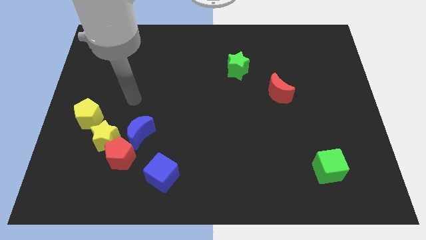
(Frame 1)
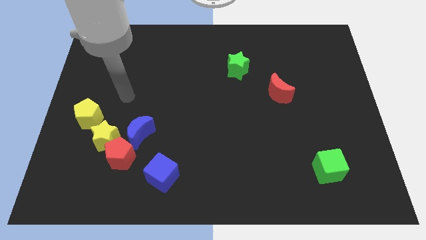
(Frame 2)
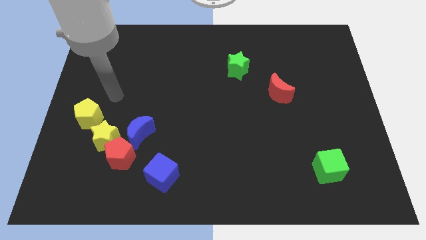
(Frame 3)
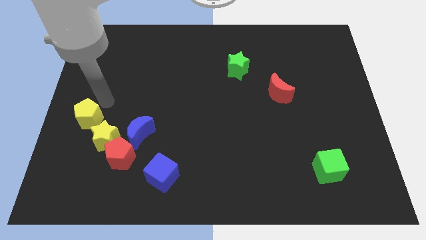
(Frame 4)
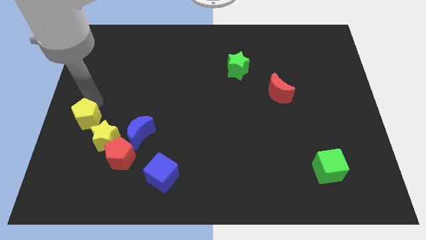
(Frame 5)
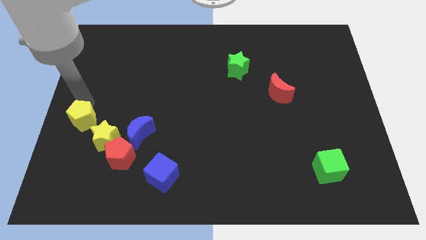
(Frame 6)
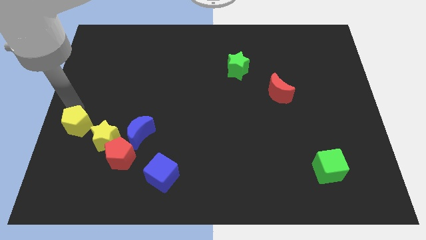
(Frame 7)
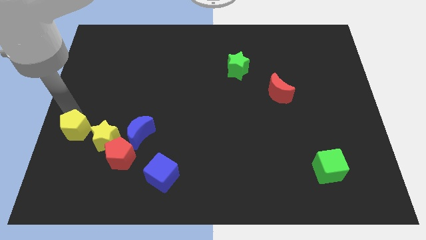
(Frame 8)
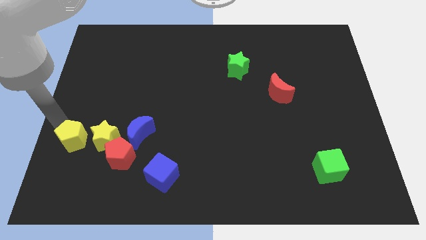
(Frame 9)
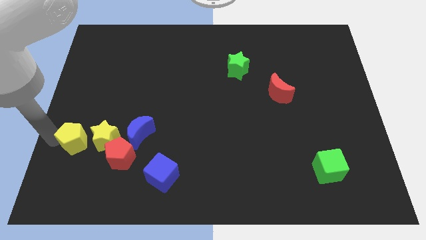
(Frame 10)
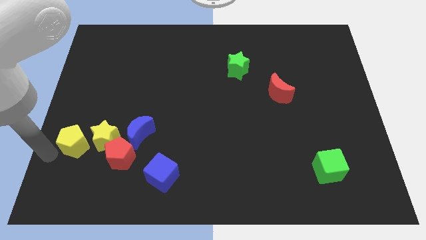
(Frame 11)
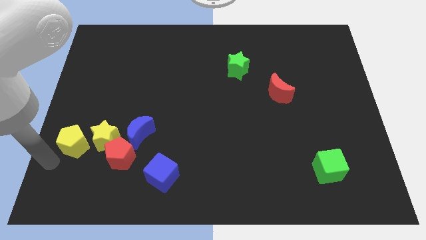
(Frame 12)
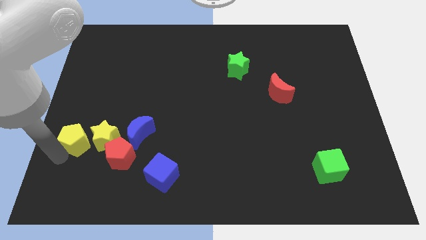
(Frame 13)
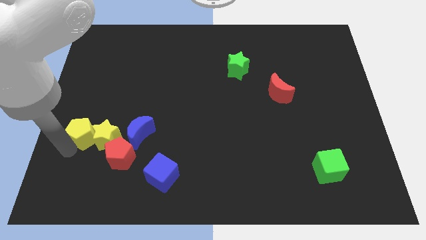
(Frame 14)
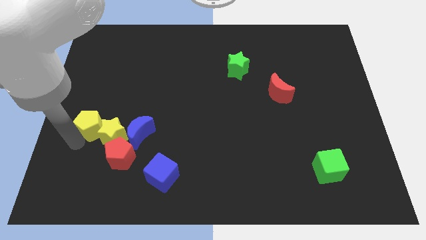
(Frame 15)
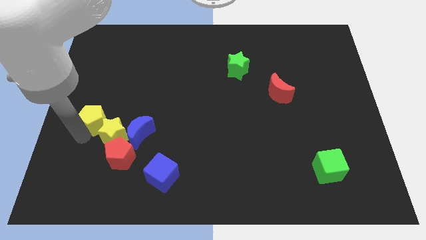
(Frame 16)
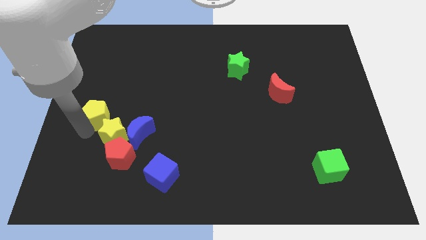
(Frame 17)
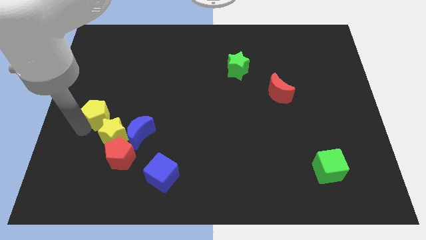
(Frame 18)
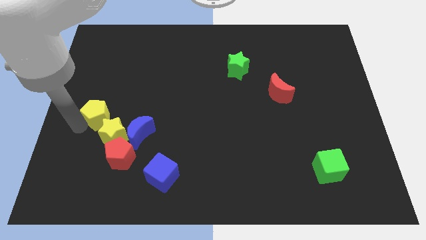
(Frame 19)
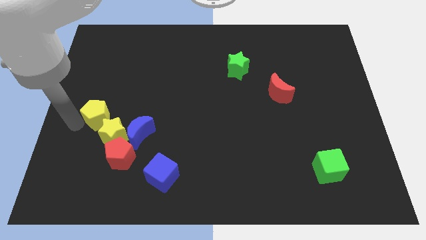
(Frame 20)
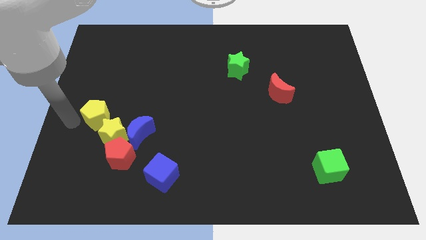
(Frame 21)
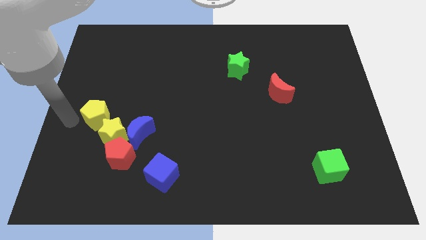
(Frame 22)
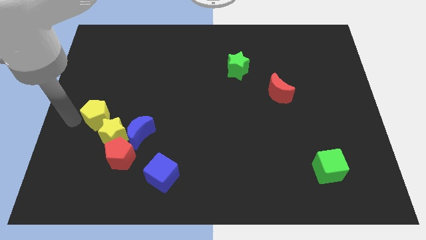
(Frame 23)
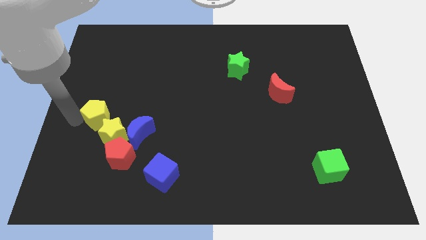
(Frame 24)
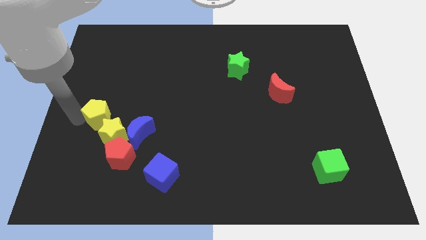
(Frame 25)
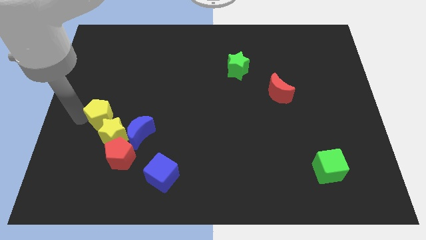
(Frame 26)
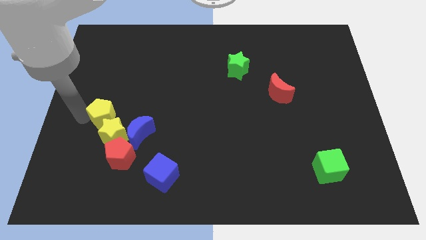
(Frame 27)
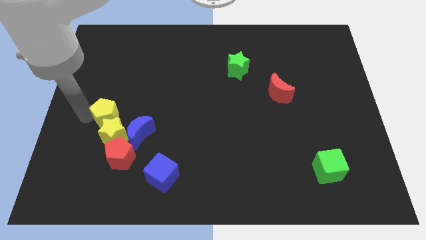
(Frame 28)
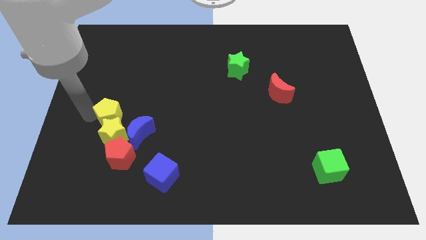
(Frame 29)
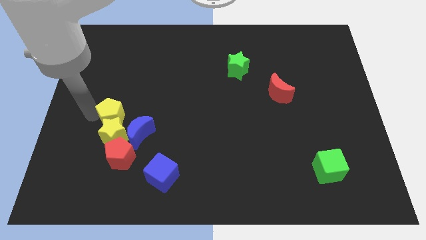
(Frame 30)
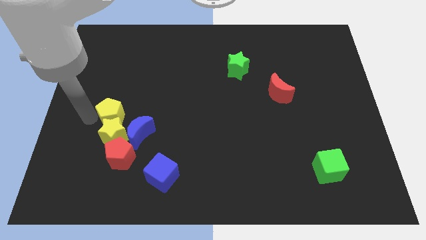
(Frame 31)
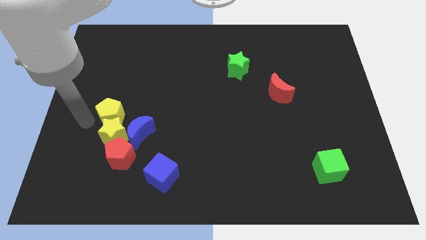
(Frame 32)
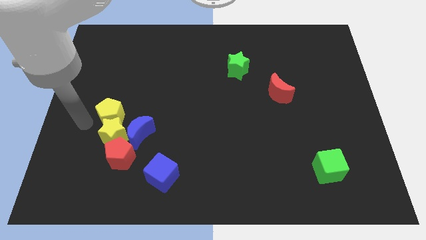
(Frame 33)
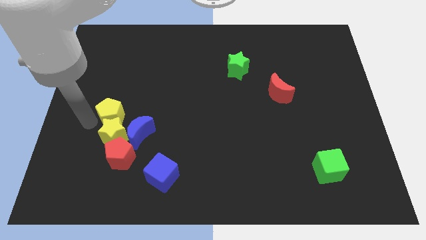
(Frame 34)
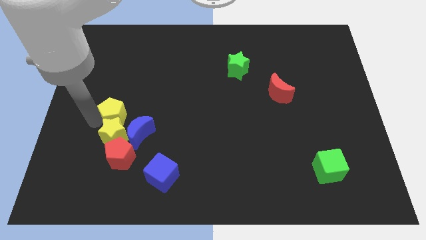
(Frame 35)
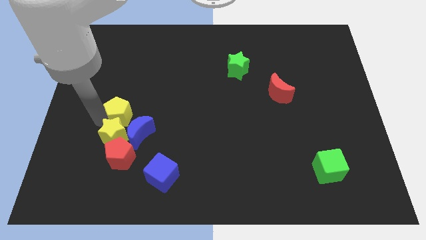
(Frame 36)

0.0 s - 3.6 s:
move the yellow pentagon to the right a bit

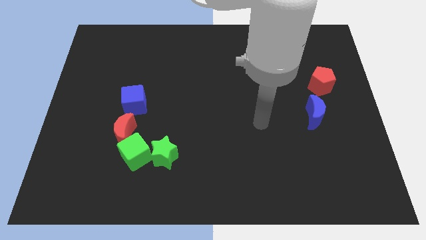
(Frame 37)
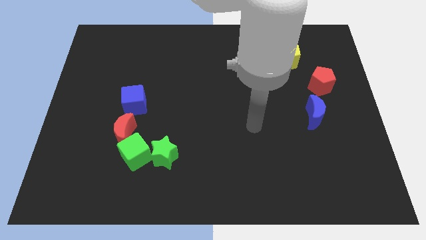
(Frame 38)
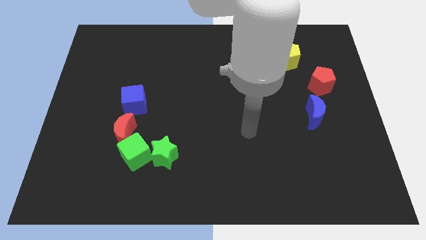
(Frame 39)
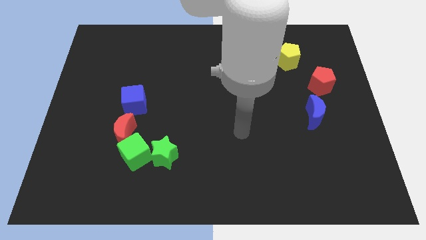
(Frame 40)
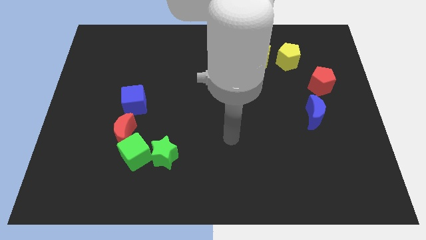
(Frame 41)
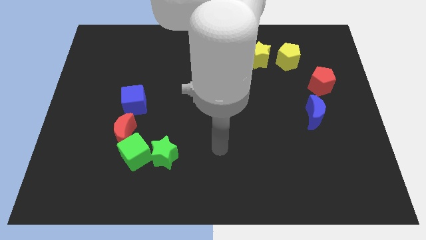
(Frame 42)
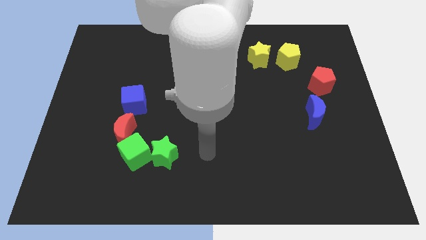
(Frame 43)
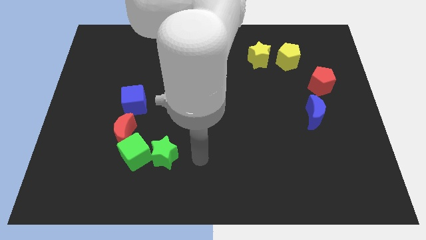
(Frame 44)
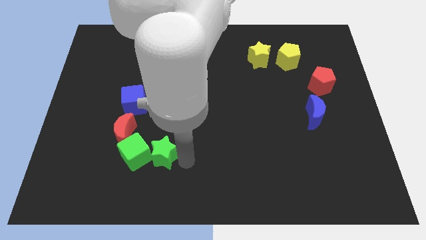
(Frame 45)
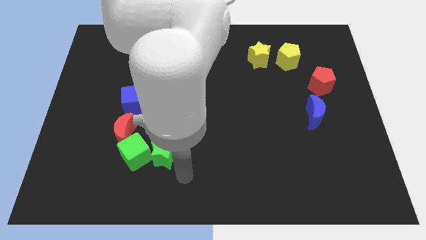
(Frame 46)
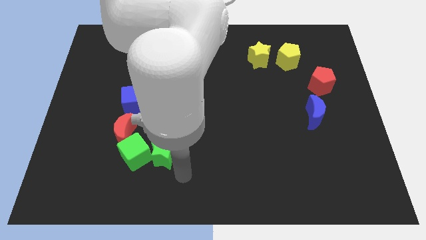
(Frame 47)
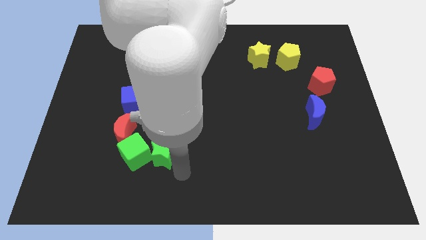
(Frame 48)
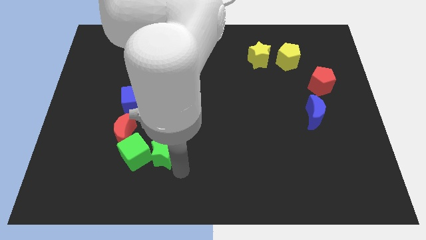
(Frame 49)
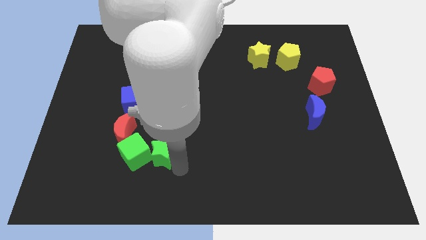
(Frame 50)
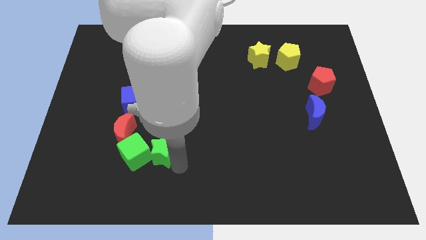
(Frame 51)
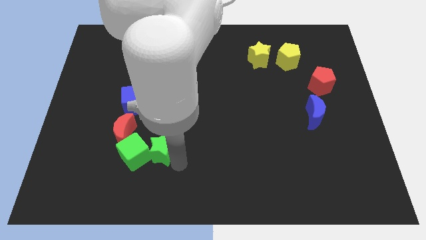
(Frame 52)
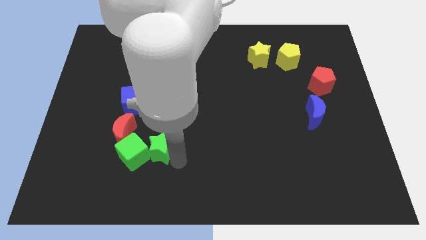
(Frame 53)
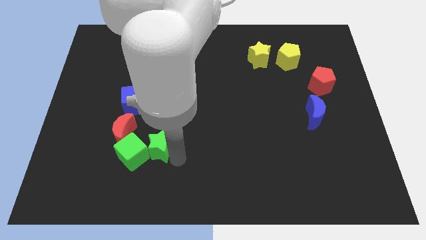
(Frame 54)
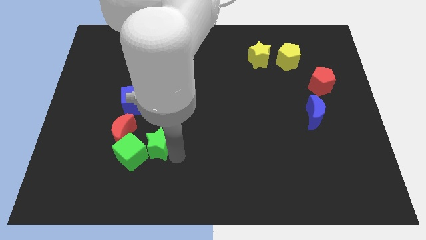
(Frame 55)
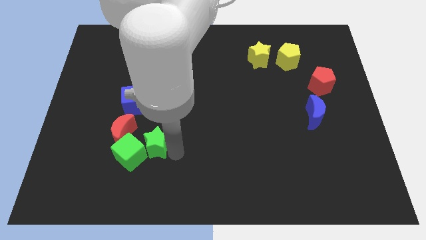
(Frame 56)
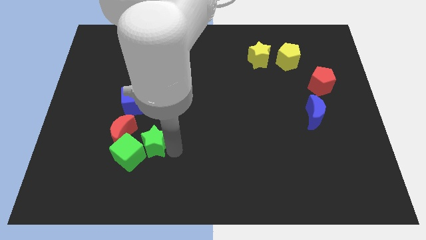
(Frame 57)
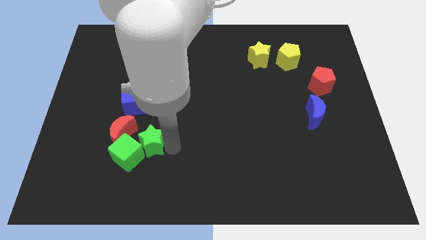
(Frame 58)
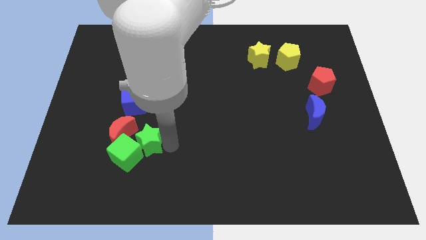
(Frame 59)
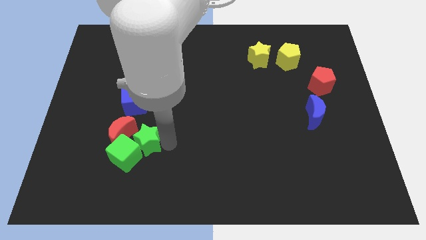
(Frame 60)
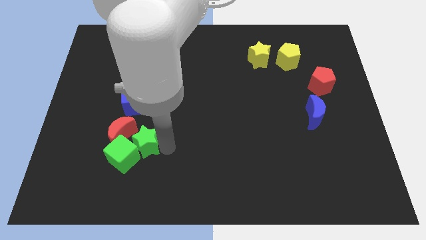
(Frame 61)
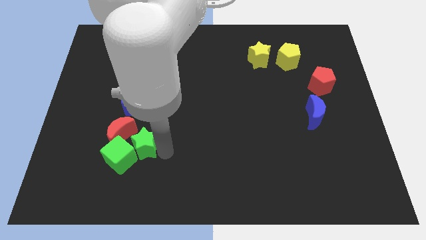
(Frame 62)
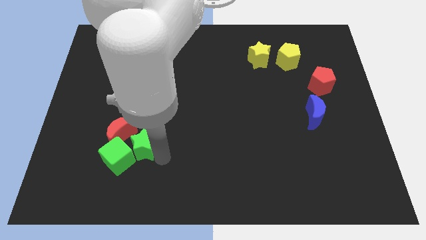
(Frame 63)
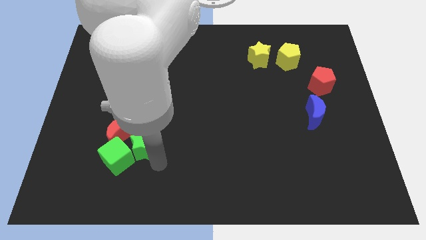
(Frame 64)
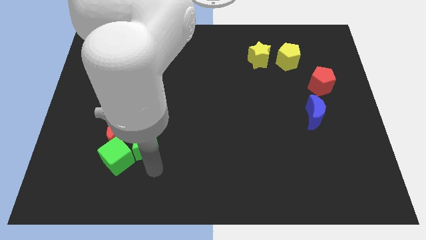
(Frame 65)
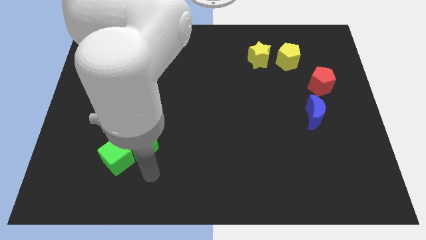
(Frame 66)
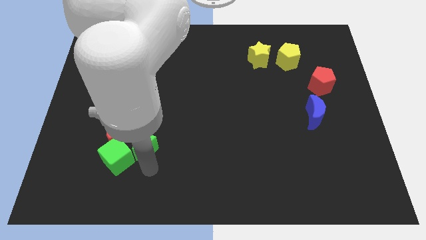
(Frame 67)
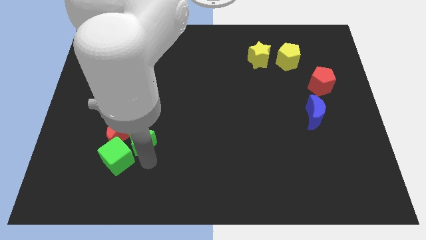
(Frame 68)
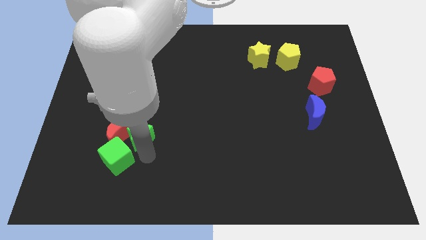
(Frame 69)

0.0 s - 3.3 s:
slightly slide the green star upwards and to the left diagonally

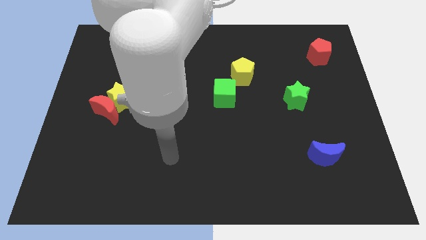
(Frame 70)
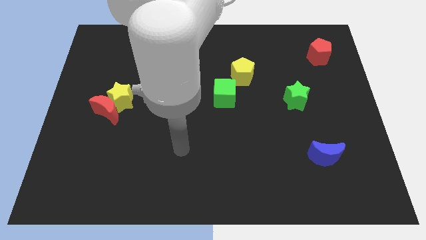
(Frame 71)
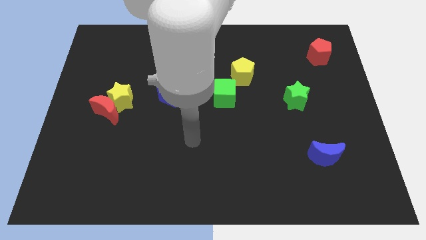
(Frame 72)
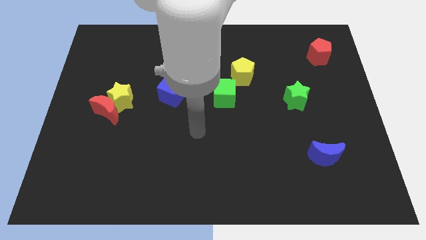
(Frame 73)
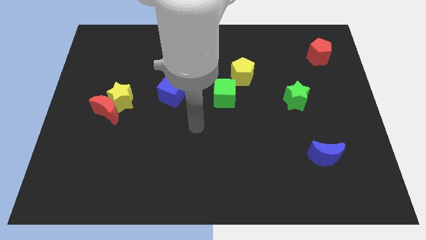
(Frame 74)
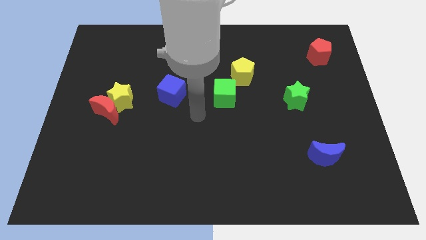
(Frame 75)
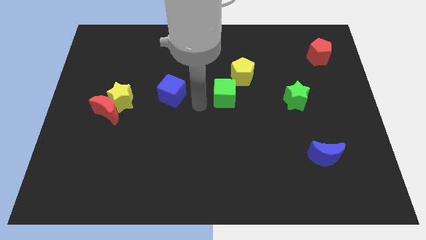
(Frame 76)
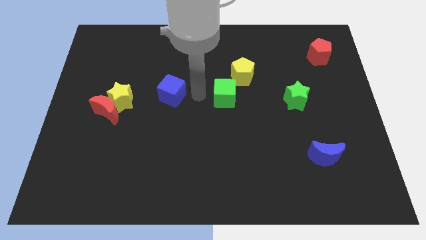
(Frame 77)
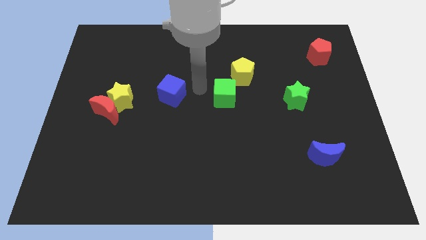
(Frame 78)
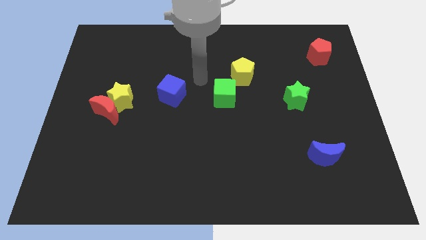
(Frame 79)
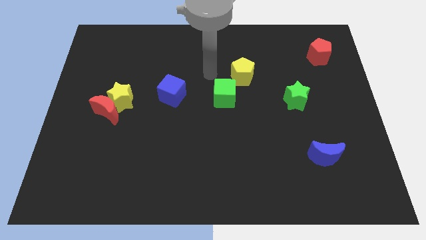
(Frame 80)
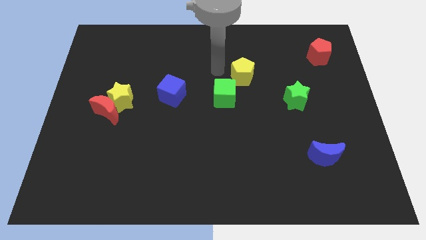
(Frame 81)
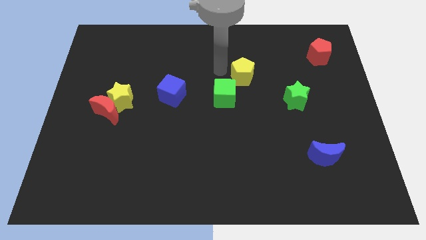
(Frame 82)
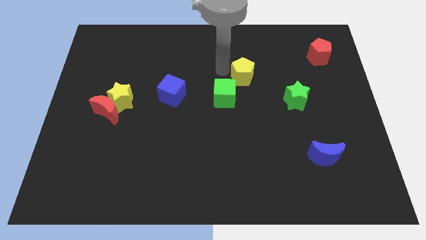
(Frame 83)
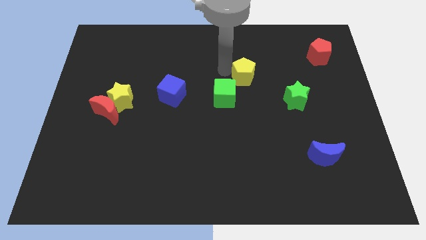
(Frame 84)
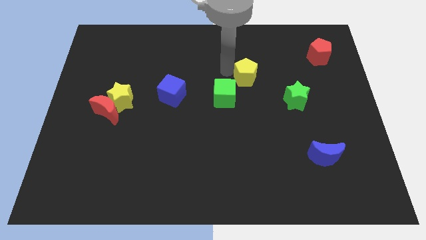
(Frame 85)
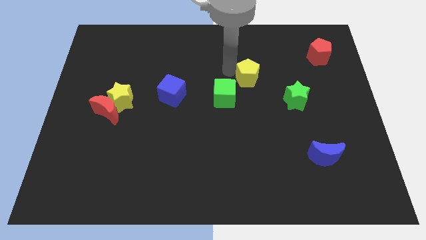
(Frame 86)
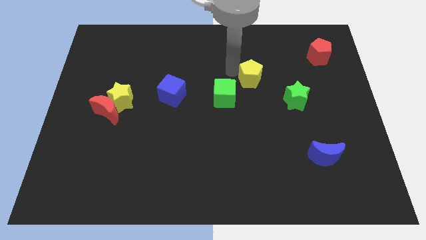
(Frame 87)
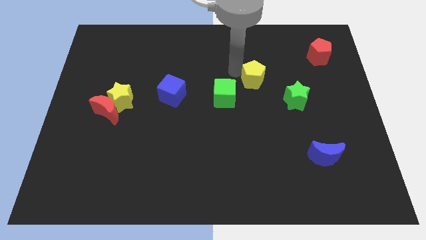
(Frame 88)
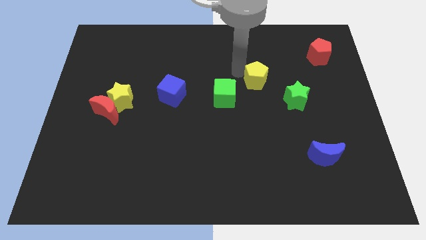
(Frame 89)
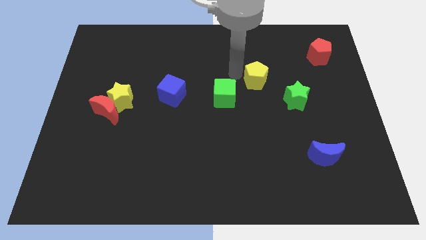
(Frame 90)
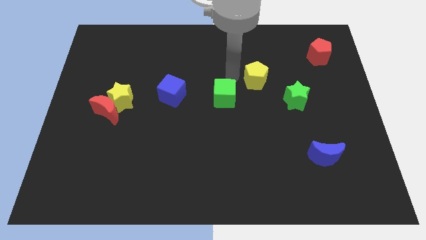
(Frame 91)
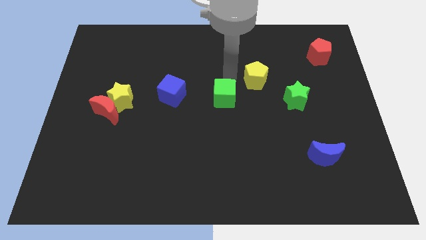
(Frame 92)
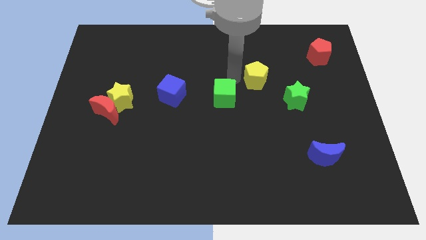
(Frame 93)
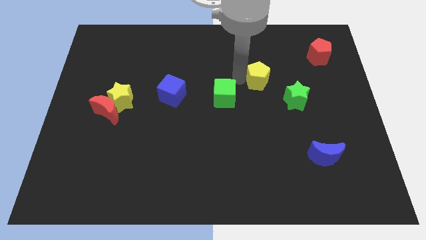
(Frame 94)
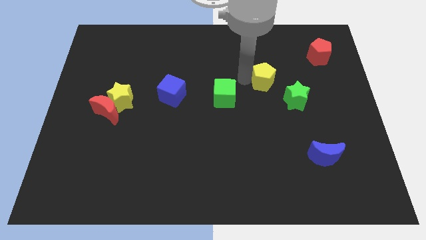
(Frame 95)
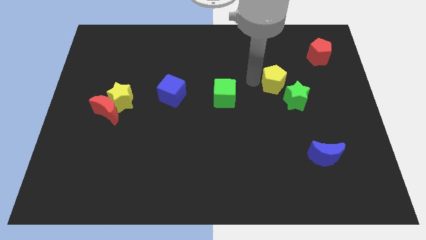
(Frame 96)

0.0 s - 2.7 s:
push the yellow pentagon to the right a little
